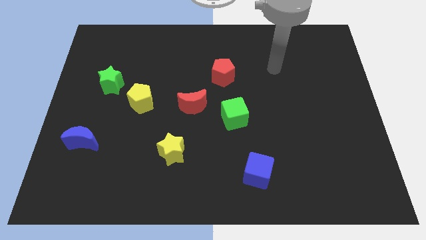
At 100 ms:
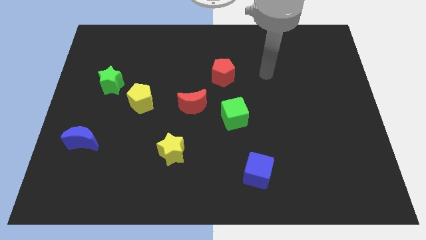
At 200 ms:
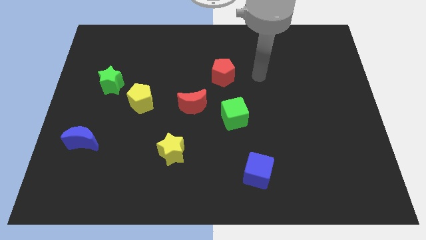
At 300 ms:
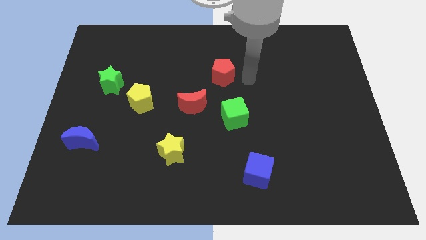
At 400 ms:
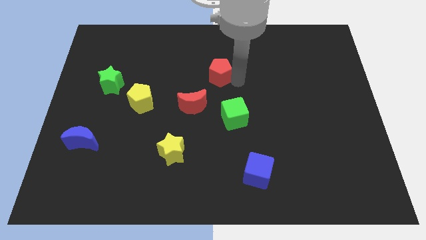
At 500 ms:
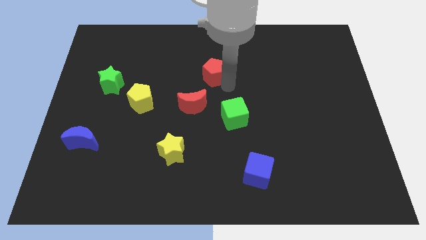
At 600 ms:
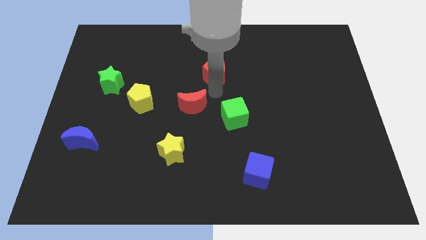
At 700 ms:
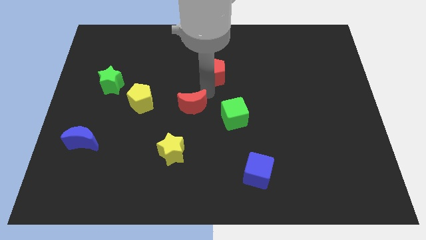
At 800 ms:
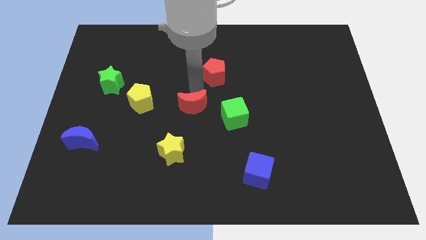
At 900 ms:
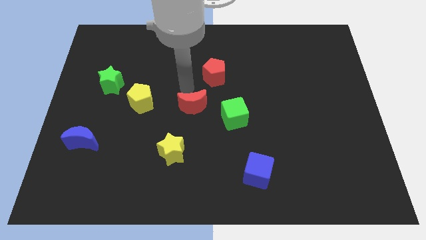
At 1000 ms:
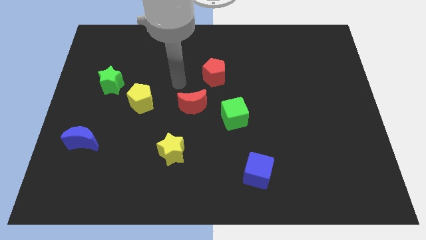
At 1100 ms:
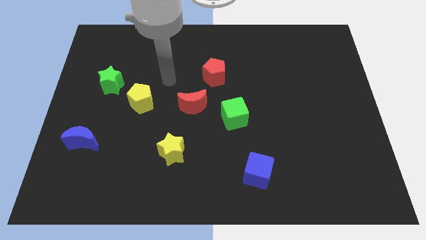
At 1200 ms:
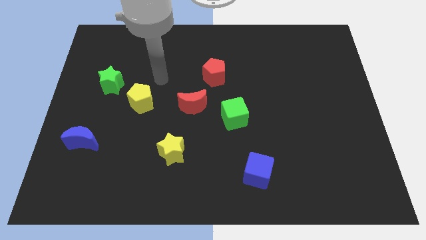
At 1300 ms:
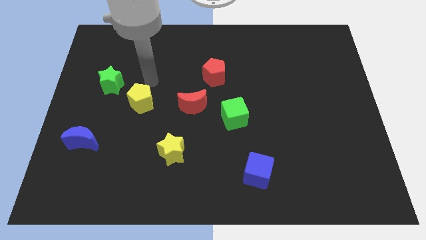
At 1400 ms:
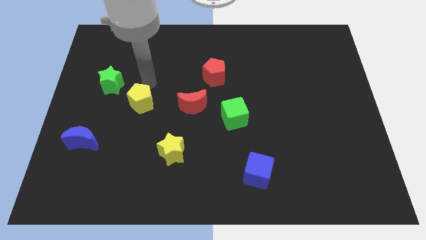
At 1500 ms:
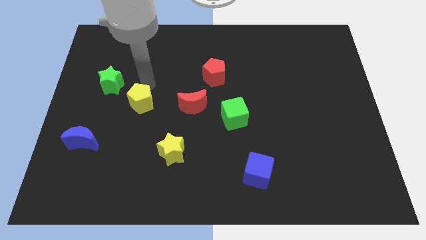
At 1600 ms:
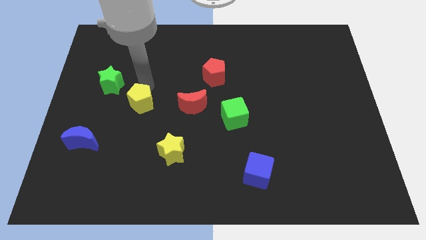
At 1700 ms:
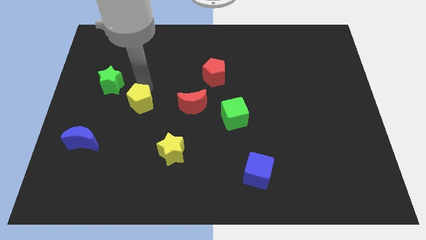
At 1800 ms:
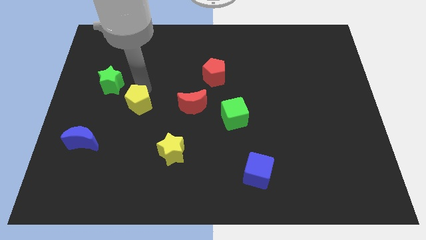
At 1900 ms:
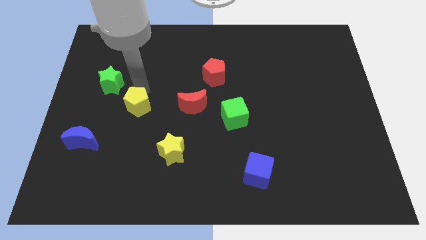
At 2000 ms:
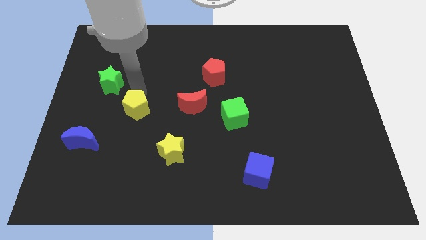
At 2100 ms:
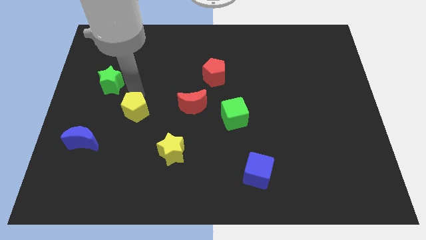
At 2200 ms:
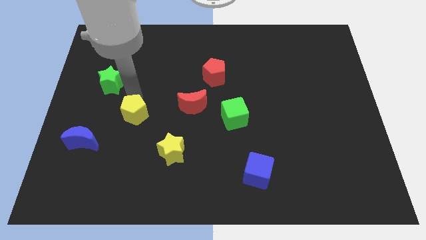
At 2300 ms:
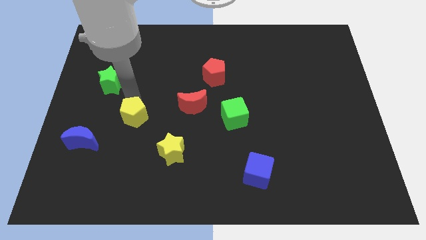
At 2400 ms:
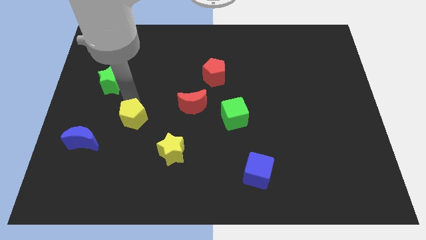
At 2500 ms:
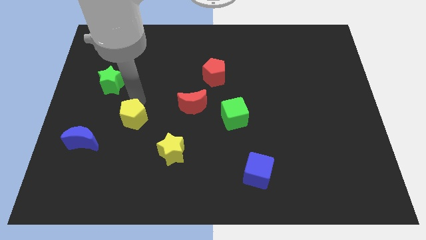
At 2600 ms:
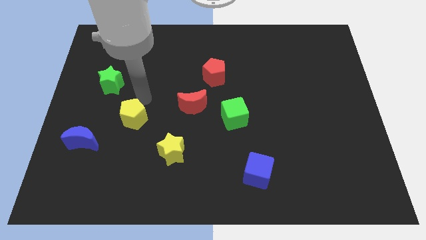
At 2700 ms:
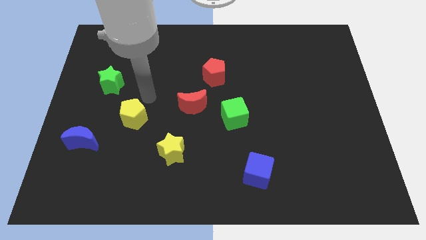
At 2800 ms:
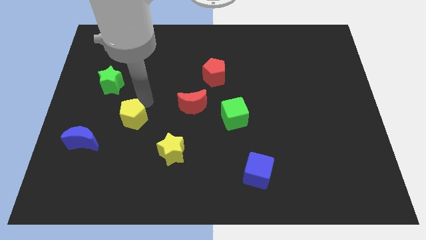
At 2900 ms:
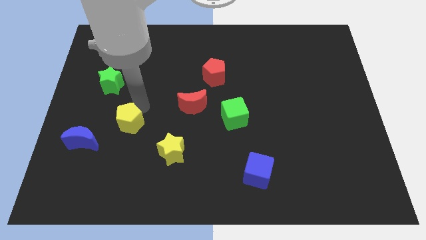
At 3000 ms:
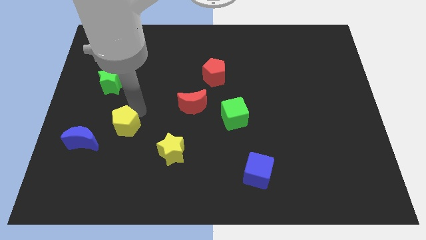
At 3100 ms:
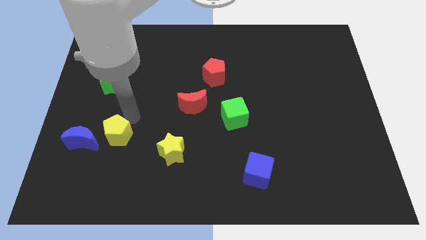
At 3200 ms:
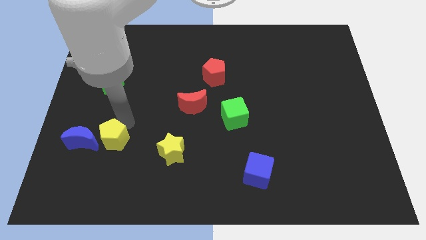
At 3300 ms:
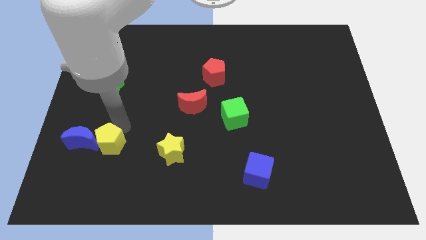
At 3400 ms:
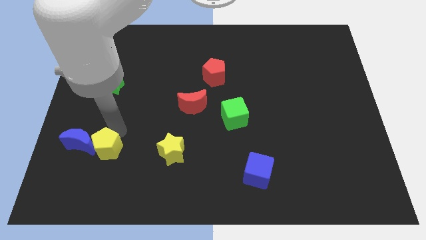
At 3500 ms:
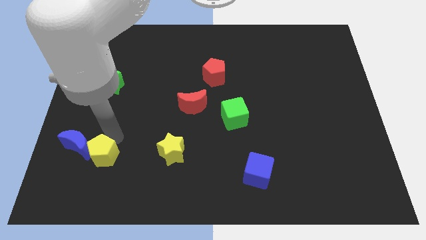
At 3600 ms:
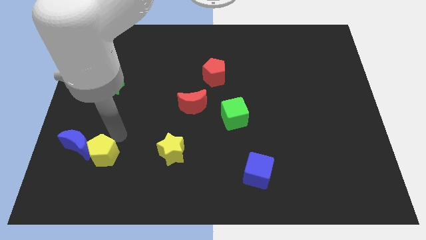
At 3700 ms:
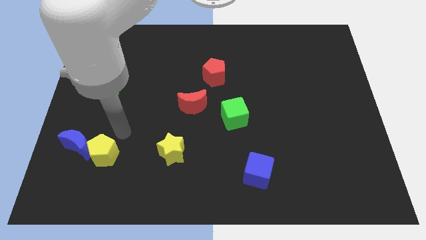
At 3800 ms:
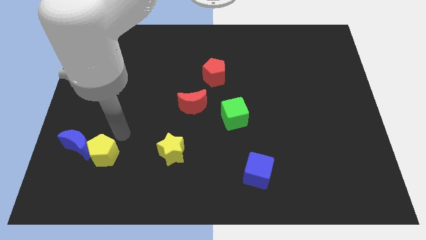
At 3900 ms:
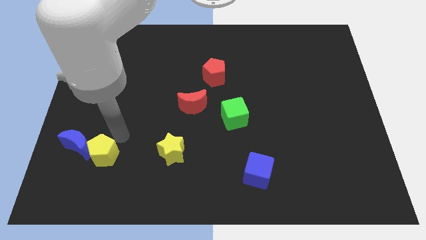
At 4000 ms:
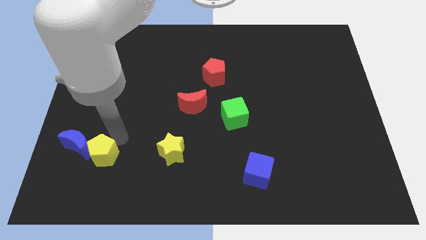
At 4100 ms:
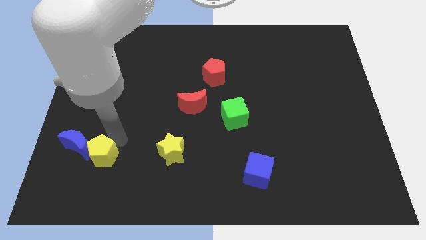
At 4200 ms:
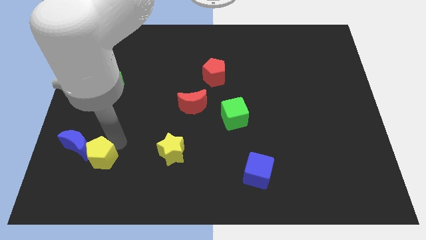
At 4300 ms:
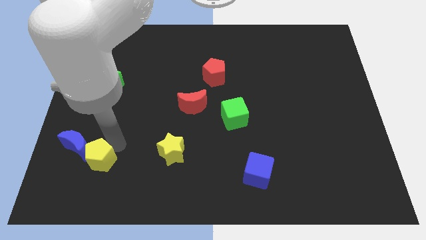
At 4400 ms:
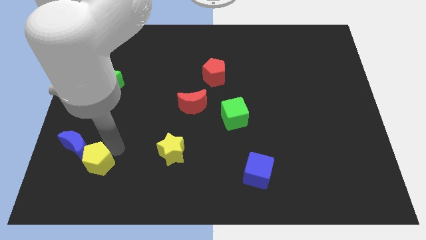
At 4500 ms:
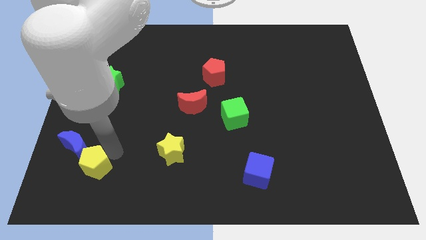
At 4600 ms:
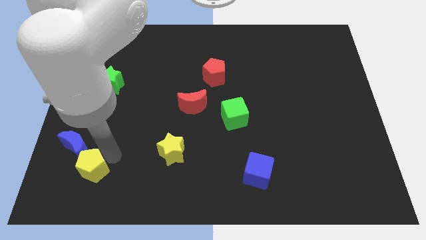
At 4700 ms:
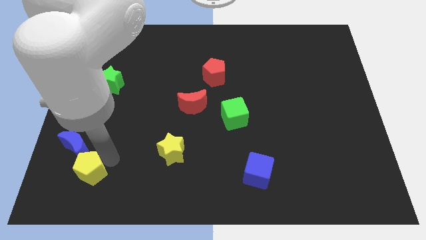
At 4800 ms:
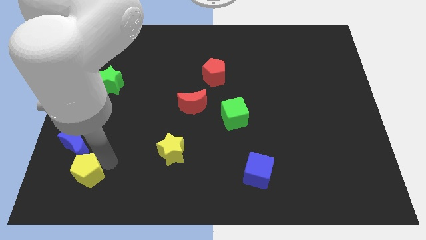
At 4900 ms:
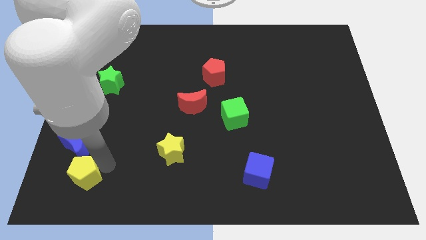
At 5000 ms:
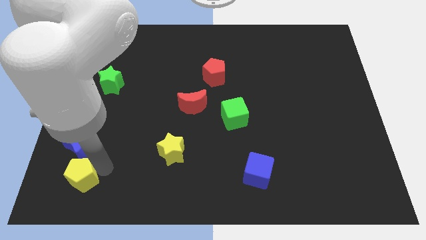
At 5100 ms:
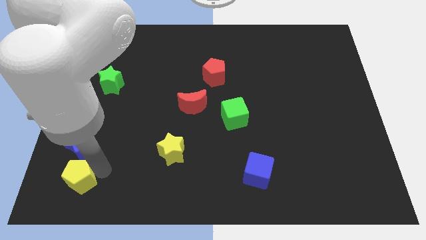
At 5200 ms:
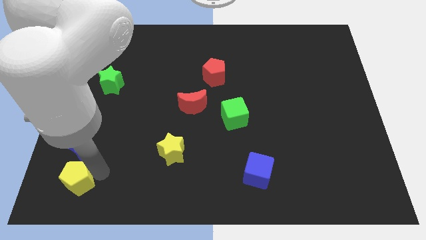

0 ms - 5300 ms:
slide the yellow pentagon to the bottom left corner
